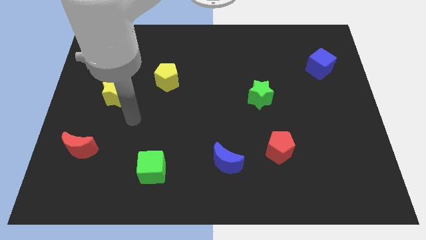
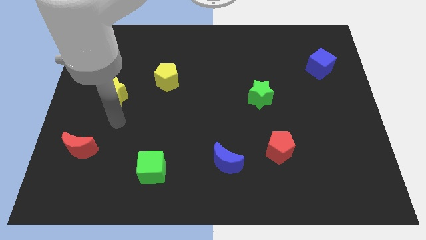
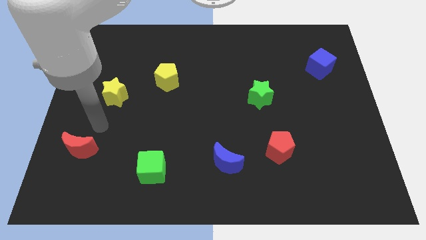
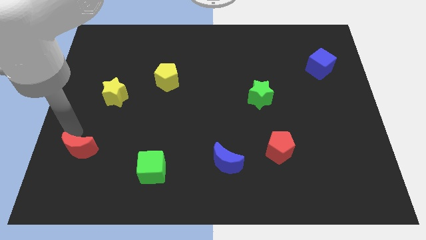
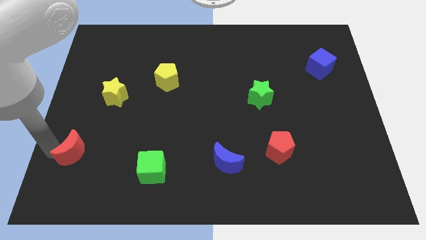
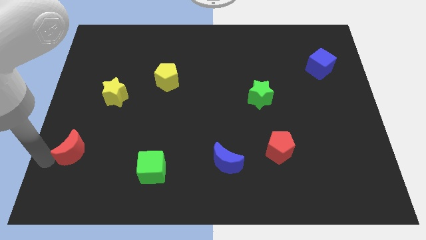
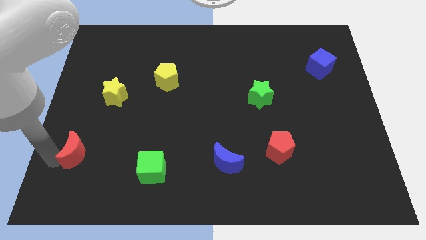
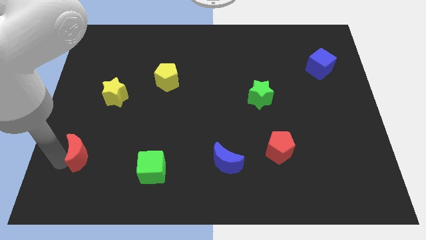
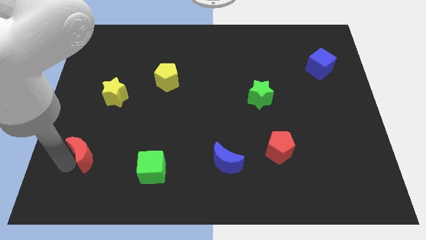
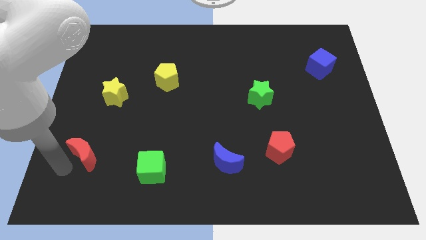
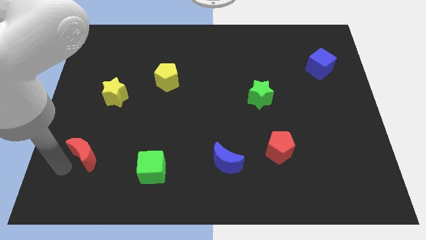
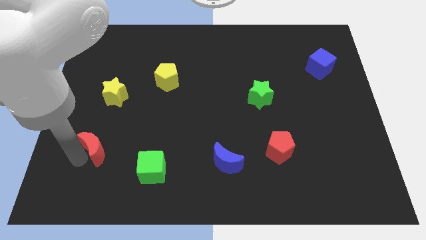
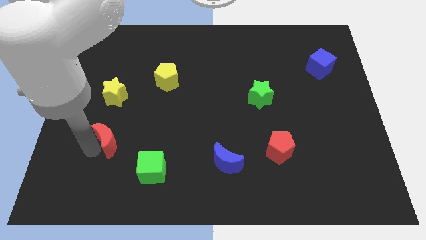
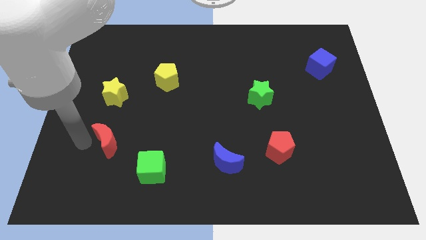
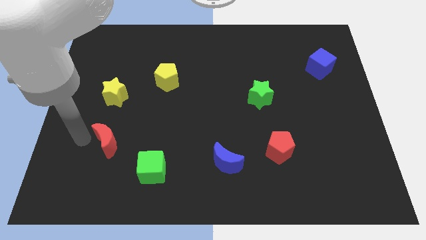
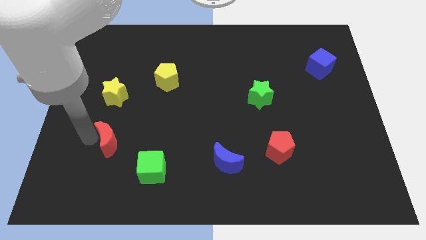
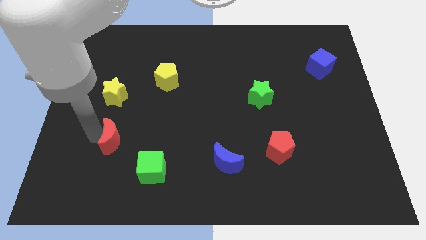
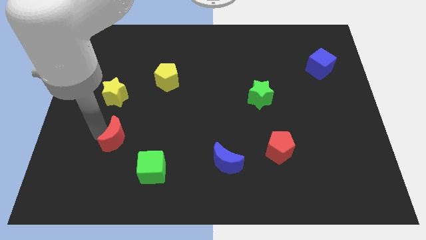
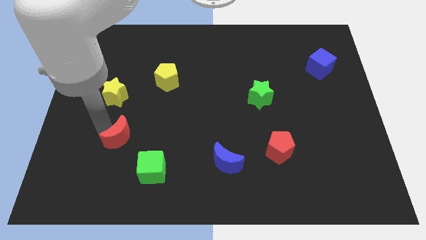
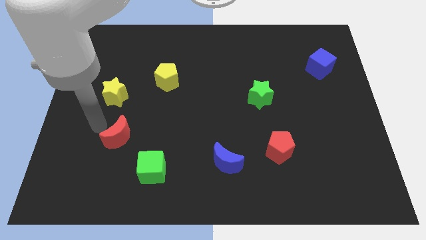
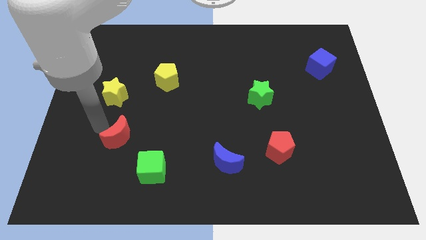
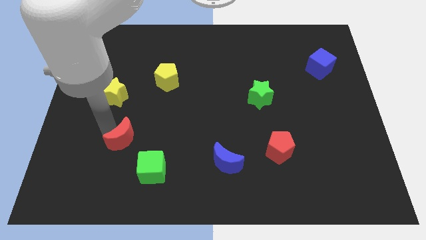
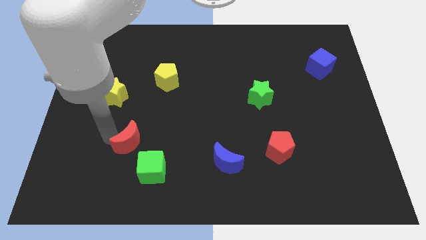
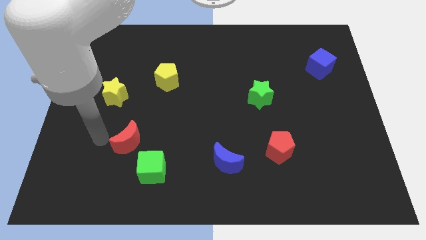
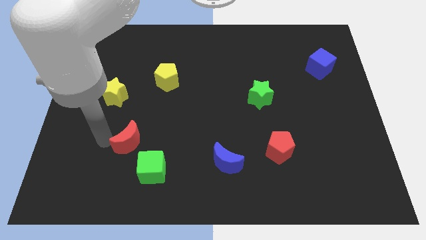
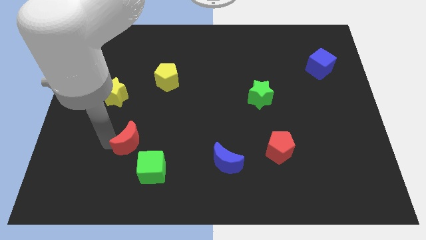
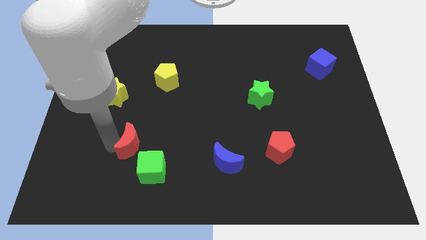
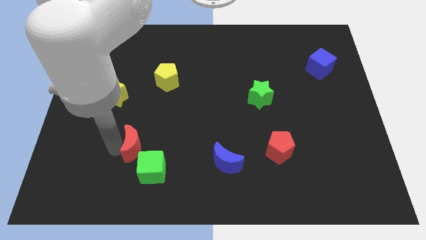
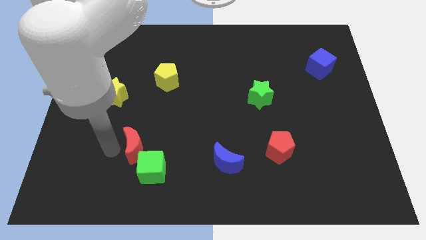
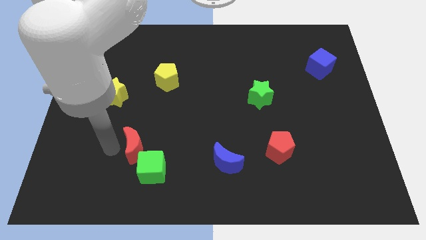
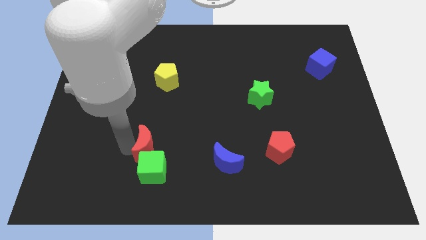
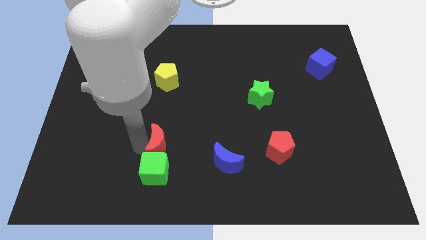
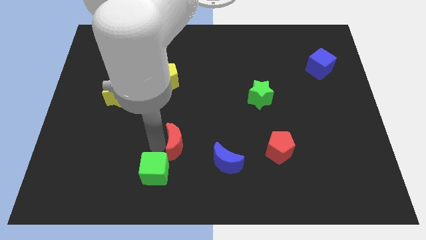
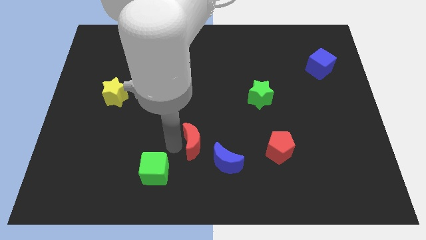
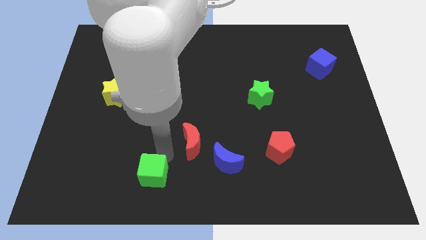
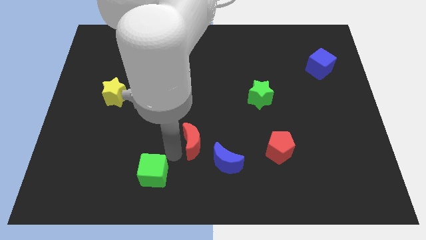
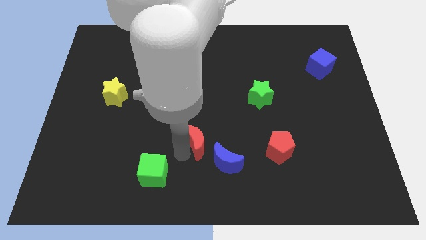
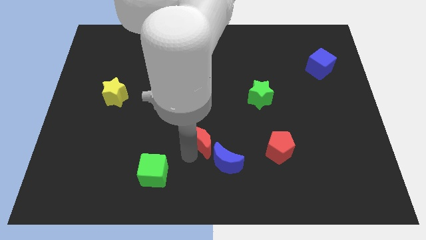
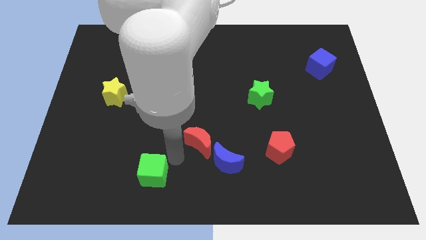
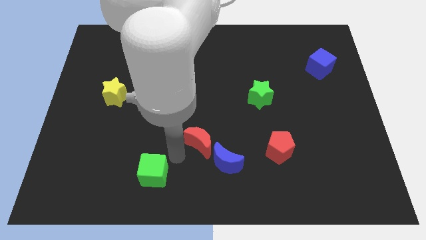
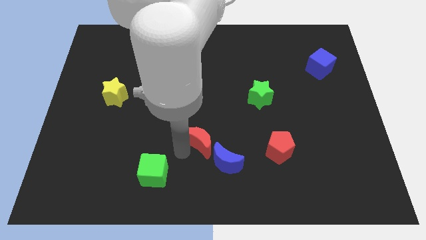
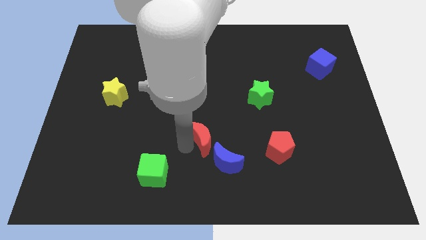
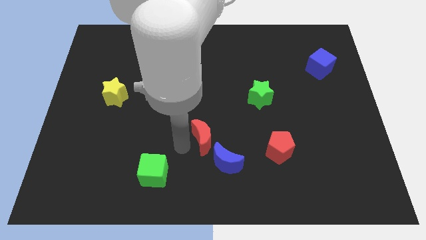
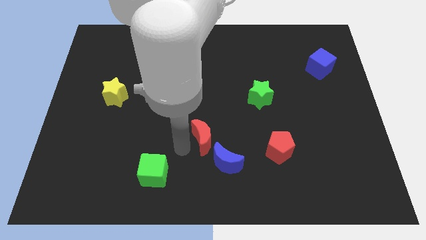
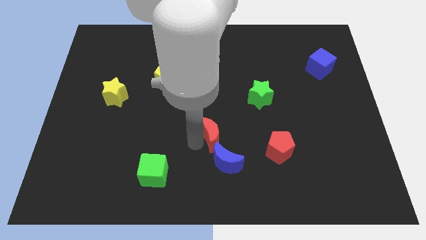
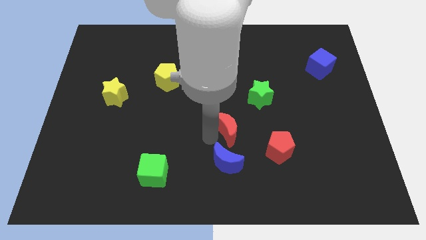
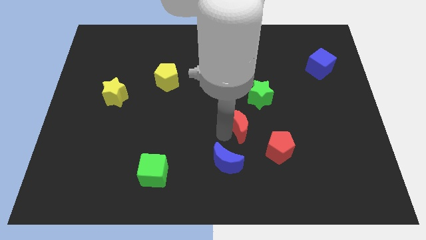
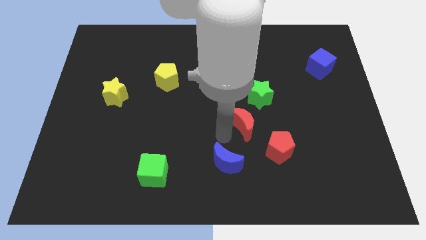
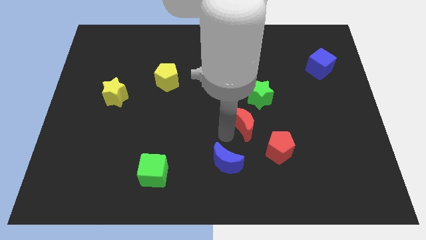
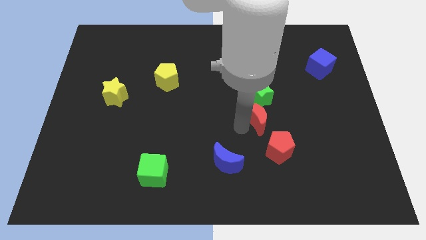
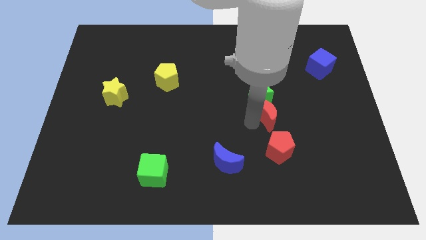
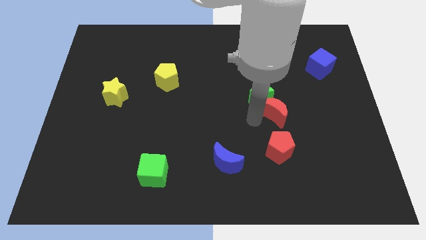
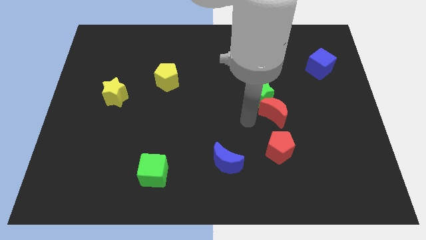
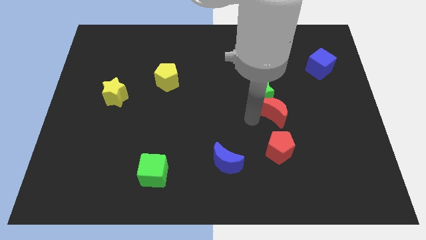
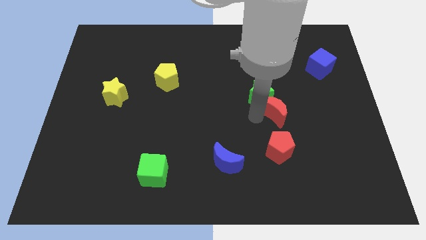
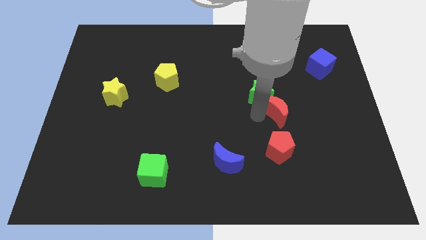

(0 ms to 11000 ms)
move the red moon just right of the green star

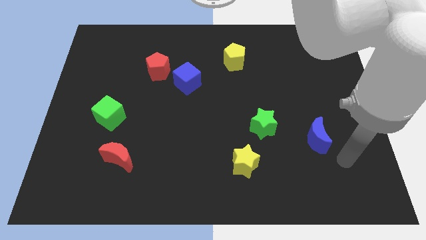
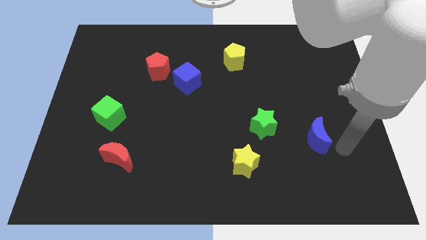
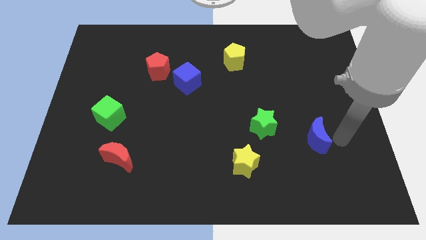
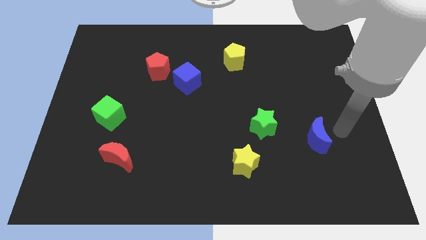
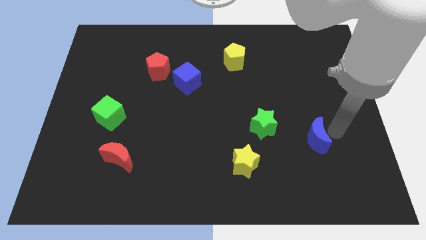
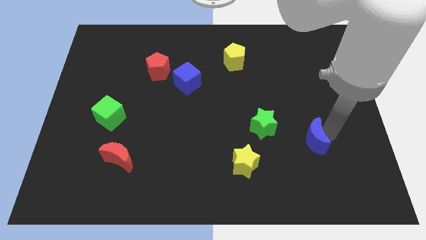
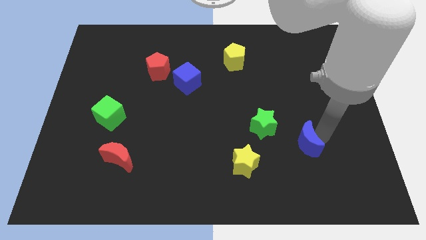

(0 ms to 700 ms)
push the blue moon to the bottom right side of the green star
